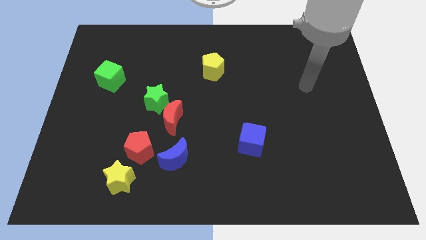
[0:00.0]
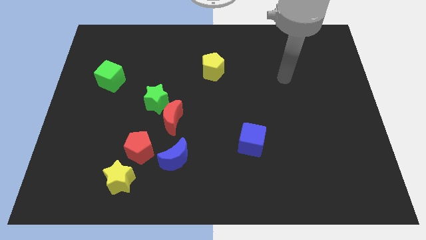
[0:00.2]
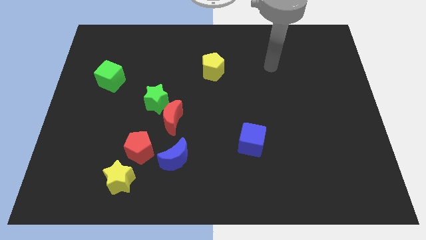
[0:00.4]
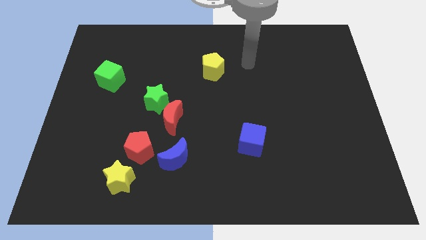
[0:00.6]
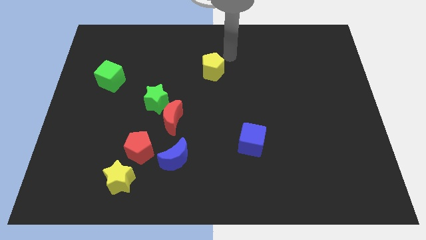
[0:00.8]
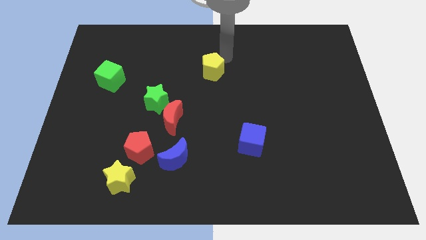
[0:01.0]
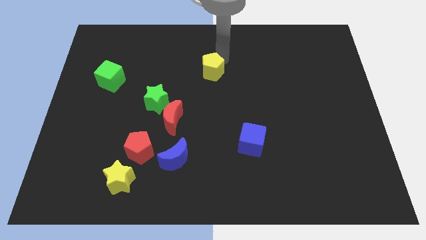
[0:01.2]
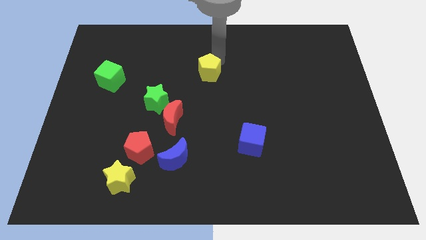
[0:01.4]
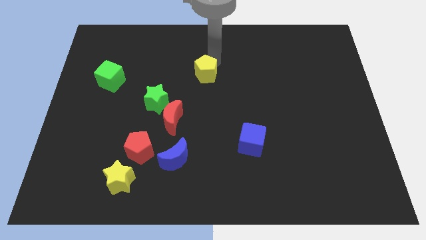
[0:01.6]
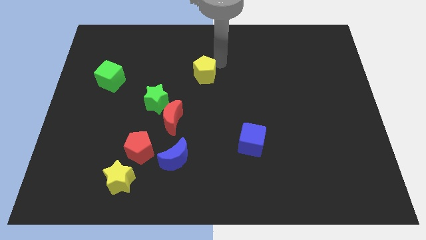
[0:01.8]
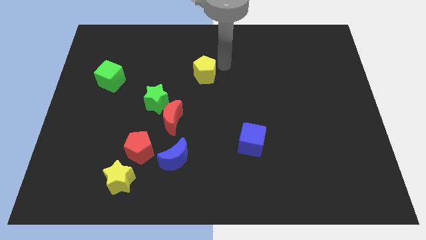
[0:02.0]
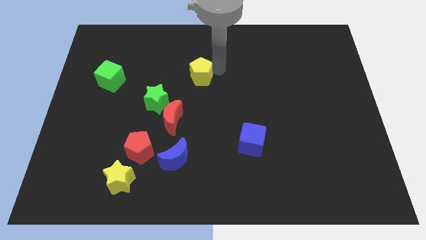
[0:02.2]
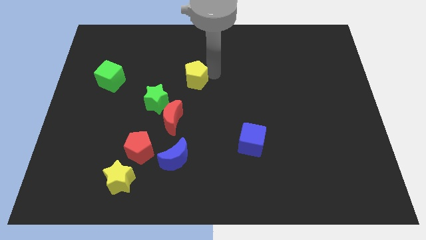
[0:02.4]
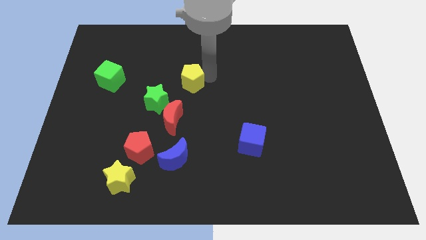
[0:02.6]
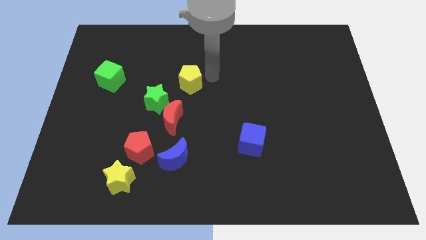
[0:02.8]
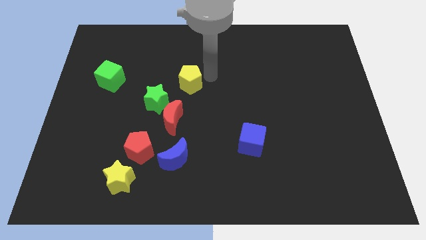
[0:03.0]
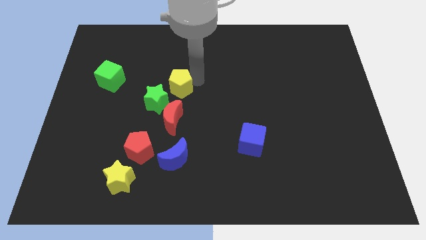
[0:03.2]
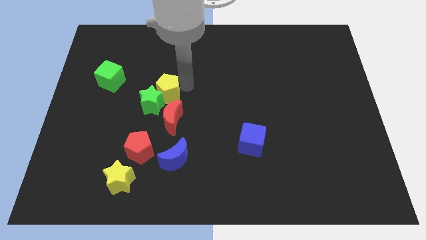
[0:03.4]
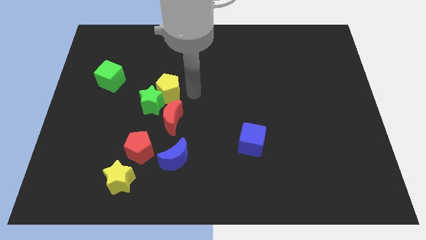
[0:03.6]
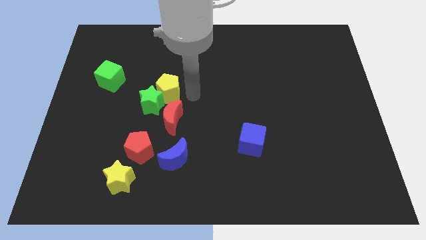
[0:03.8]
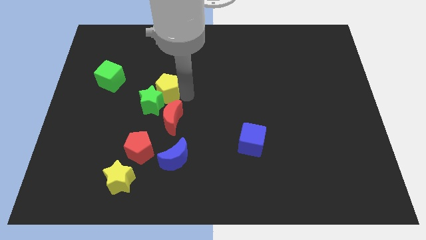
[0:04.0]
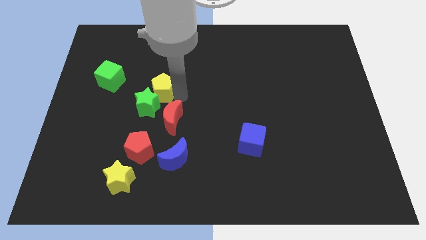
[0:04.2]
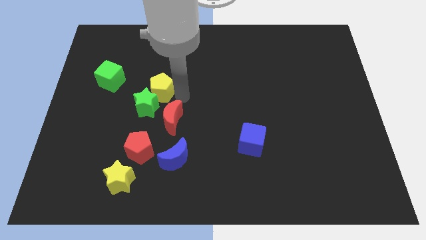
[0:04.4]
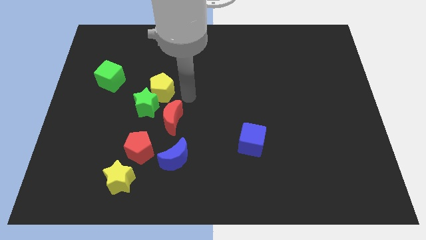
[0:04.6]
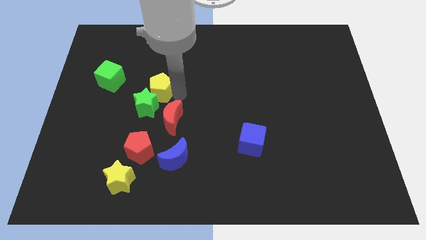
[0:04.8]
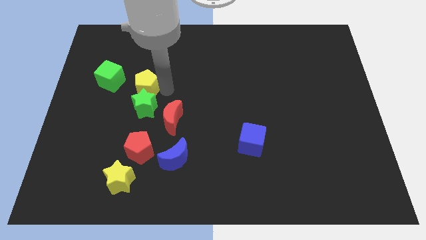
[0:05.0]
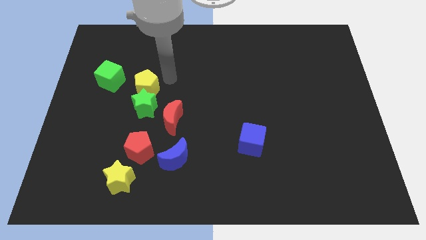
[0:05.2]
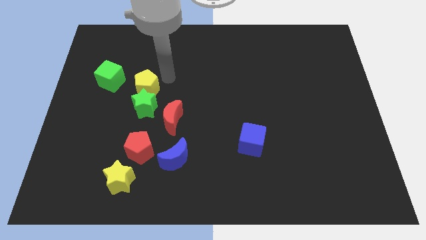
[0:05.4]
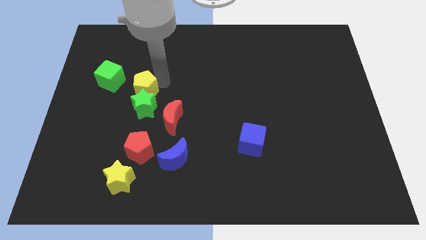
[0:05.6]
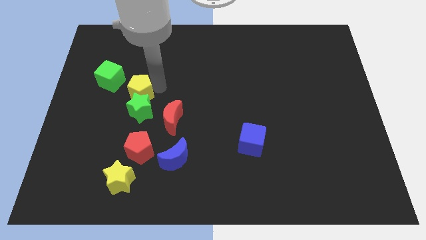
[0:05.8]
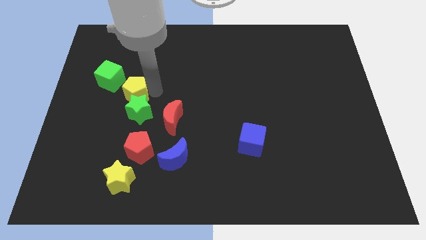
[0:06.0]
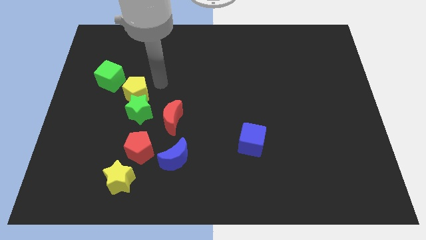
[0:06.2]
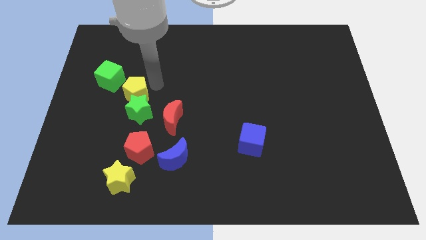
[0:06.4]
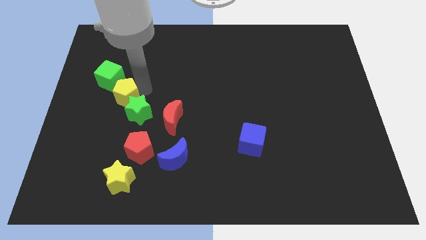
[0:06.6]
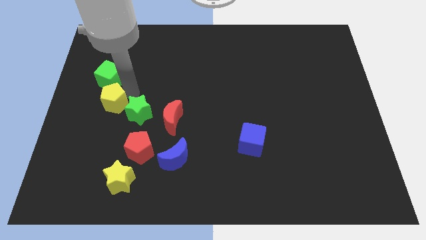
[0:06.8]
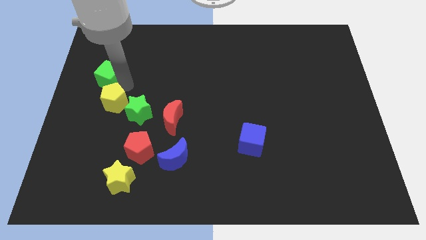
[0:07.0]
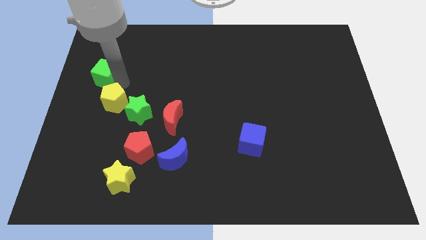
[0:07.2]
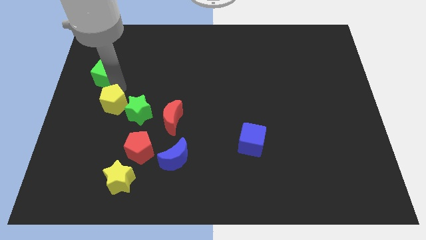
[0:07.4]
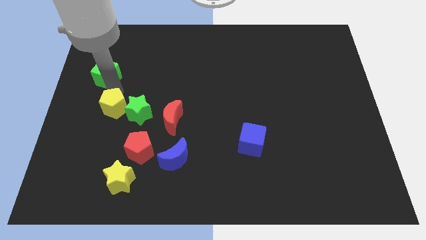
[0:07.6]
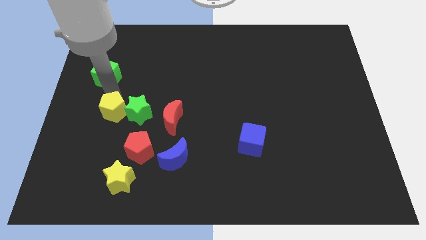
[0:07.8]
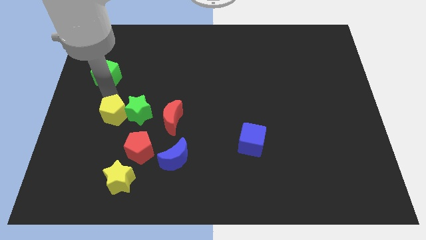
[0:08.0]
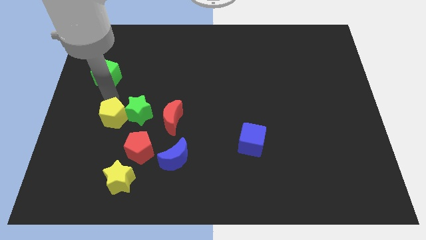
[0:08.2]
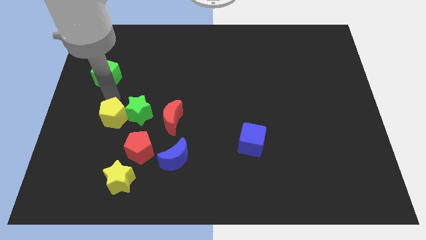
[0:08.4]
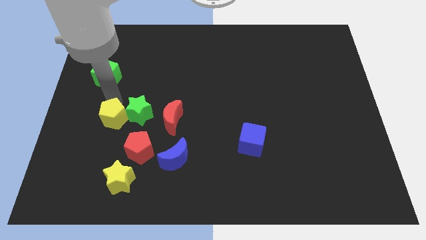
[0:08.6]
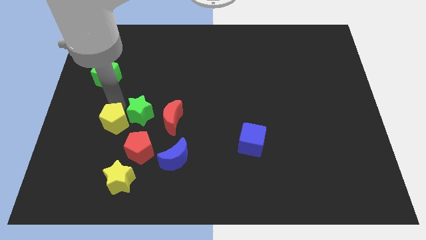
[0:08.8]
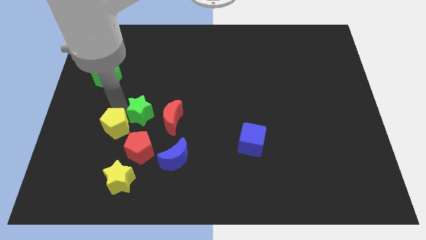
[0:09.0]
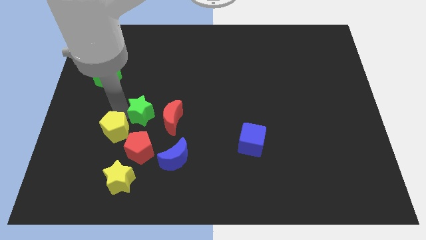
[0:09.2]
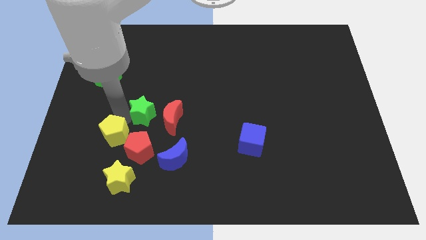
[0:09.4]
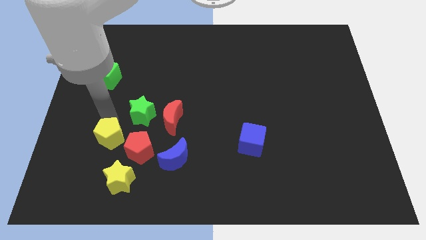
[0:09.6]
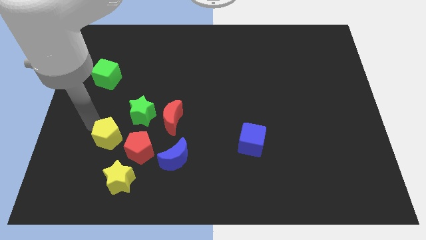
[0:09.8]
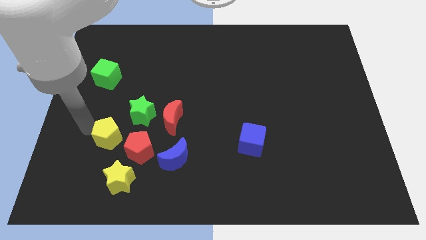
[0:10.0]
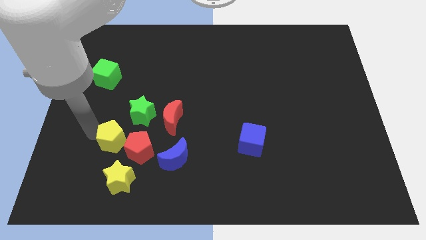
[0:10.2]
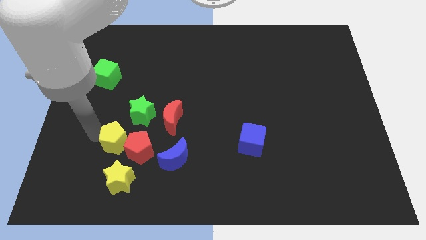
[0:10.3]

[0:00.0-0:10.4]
put the yellow pentagon close to the red pentagon

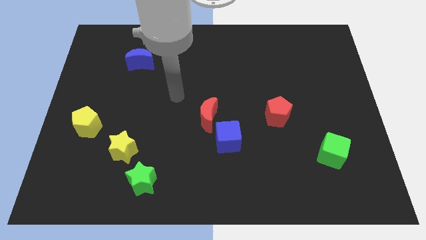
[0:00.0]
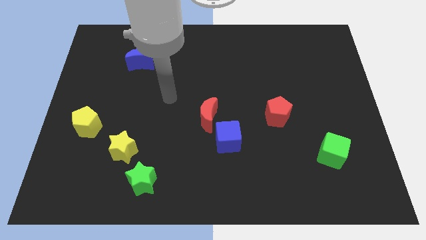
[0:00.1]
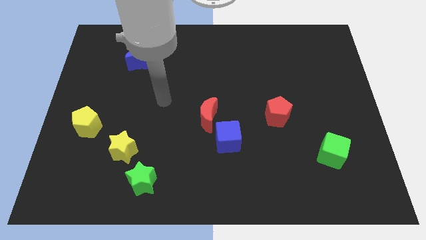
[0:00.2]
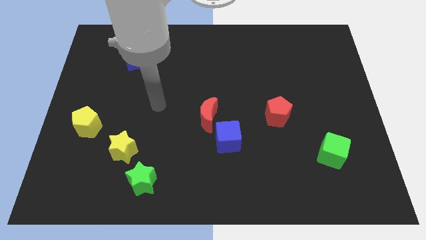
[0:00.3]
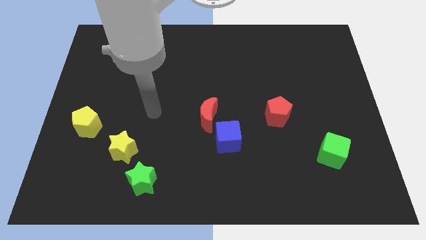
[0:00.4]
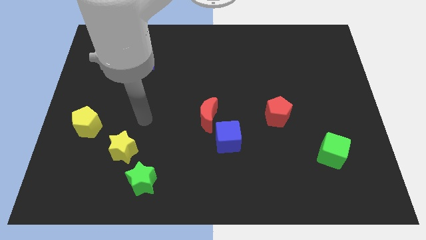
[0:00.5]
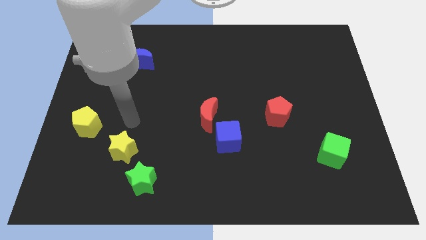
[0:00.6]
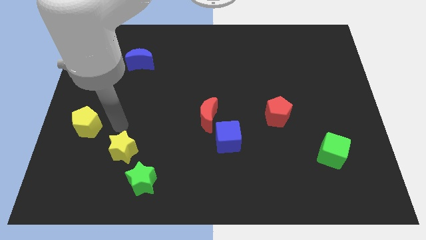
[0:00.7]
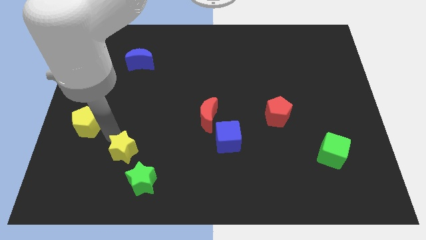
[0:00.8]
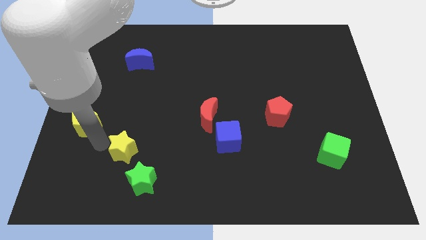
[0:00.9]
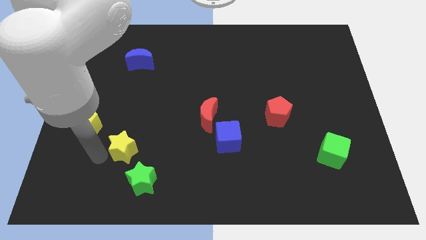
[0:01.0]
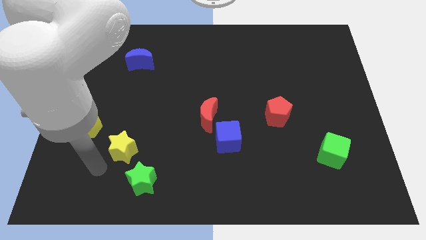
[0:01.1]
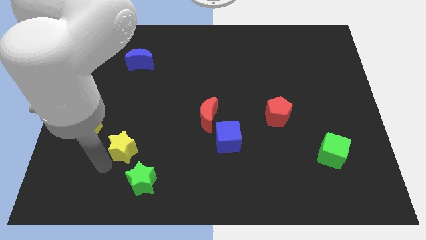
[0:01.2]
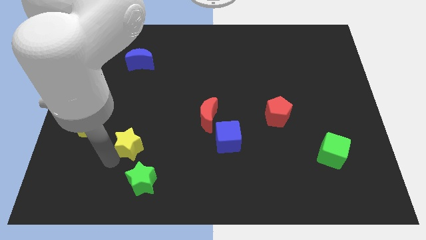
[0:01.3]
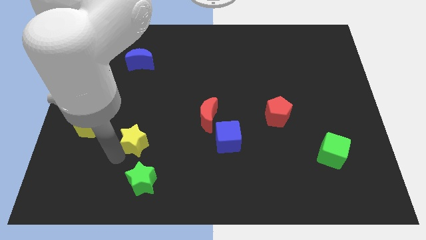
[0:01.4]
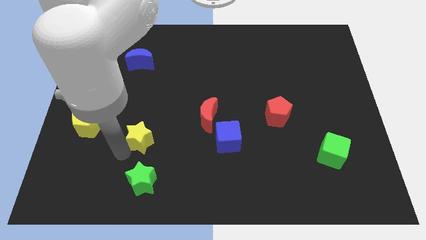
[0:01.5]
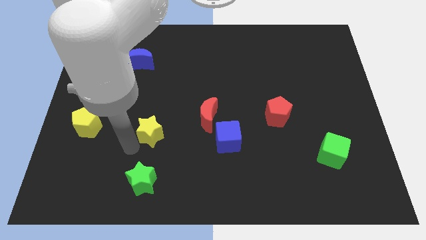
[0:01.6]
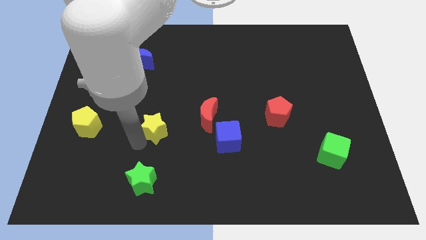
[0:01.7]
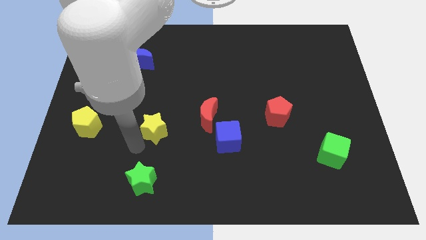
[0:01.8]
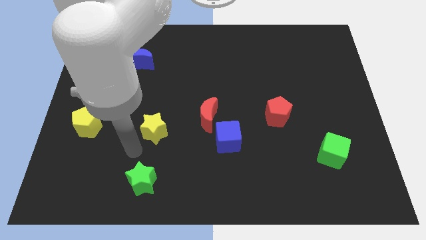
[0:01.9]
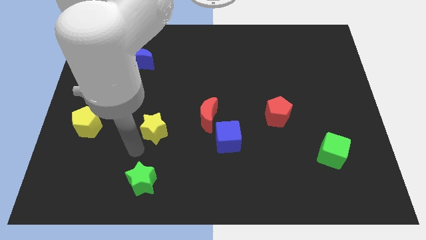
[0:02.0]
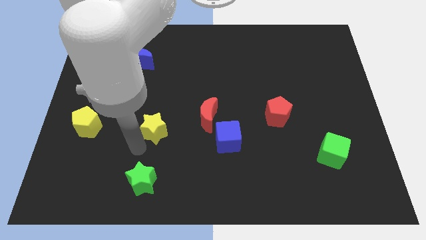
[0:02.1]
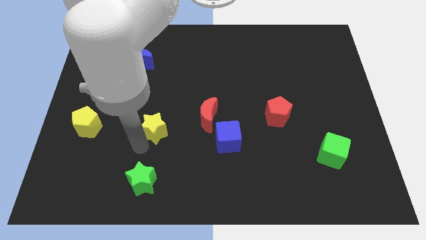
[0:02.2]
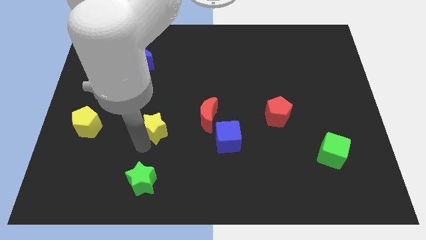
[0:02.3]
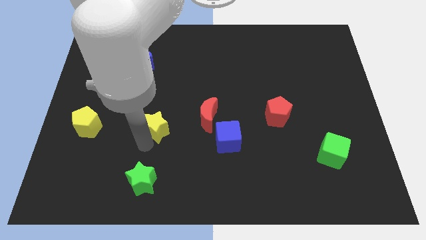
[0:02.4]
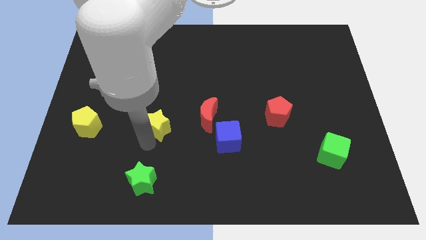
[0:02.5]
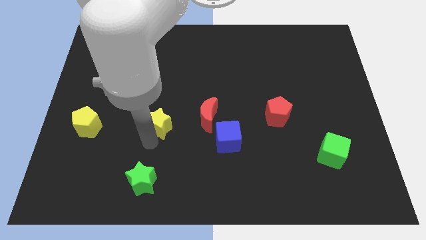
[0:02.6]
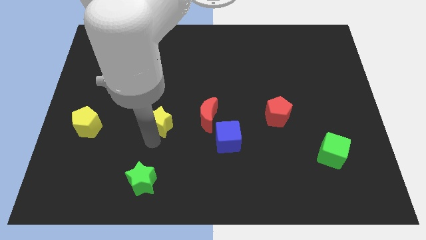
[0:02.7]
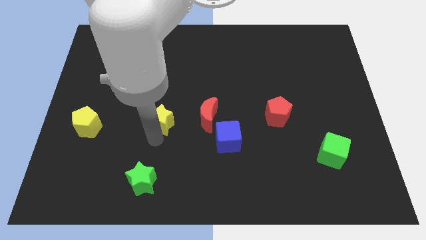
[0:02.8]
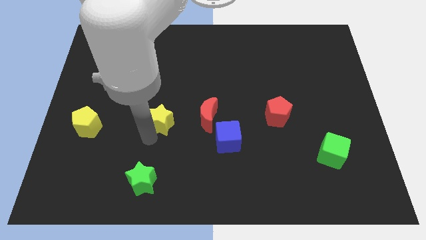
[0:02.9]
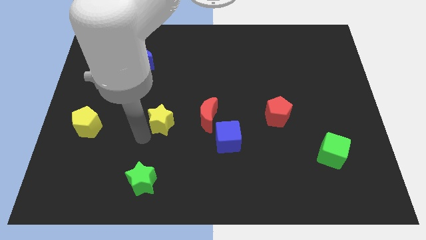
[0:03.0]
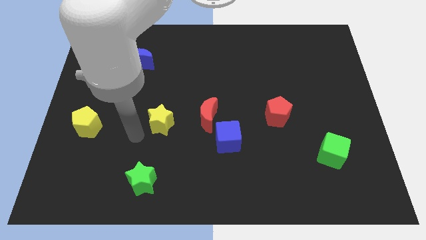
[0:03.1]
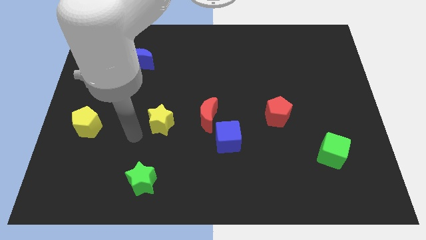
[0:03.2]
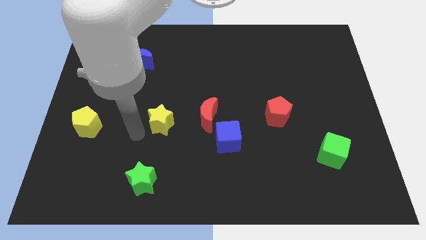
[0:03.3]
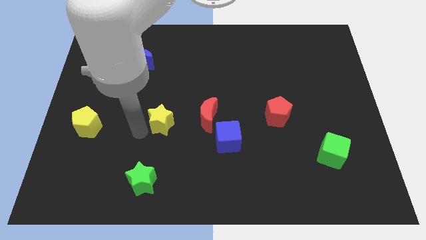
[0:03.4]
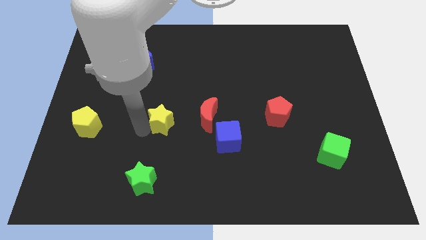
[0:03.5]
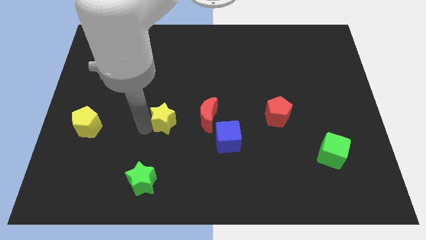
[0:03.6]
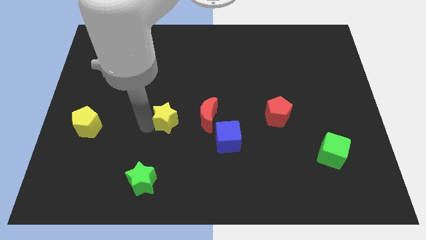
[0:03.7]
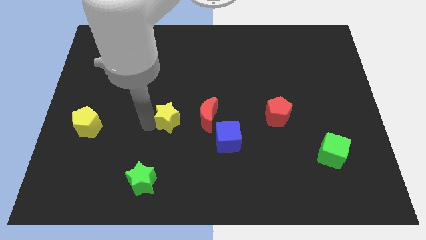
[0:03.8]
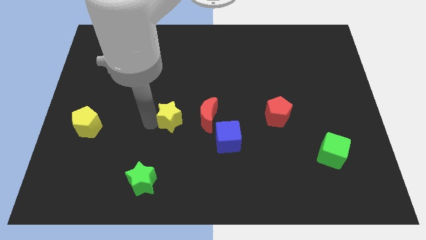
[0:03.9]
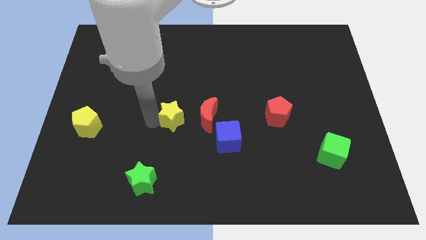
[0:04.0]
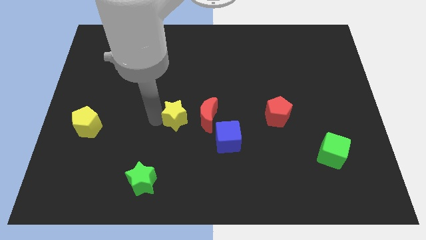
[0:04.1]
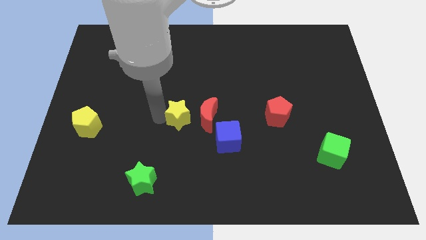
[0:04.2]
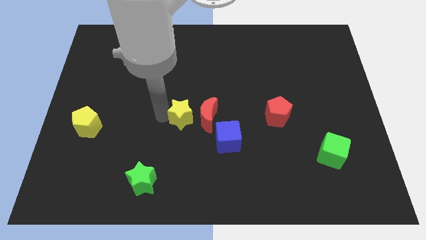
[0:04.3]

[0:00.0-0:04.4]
push the yellow star next to the red moon
